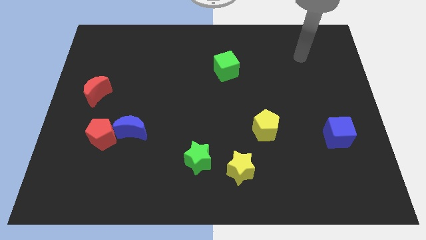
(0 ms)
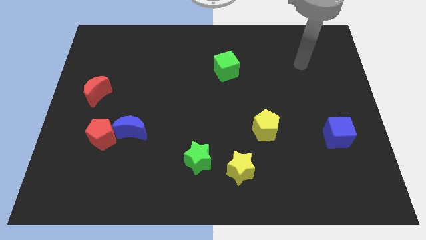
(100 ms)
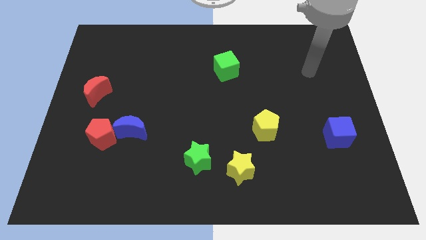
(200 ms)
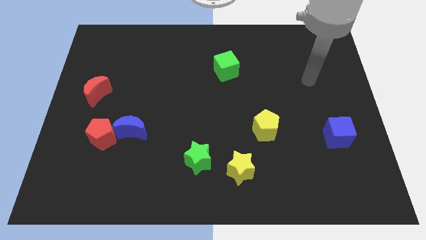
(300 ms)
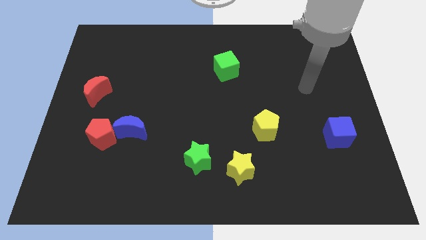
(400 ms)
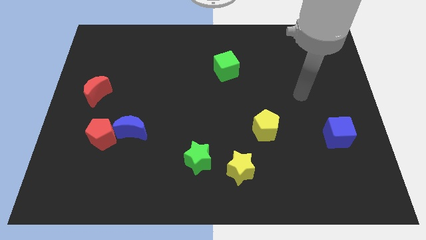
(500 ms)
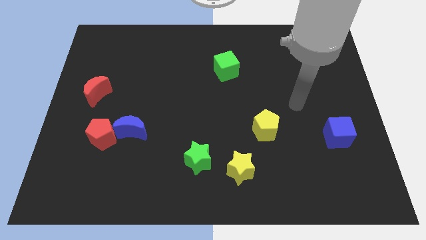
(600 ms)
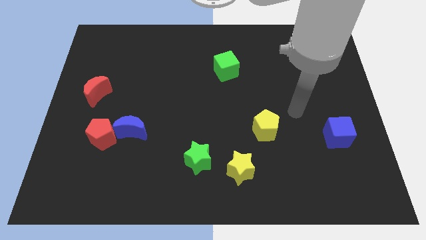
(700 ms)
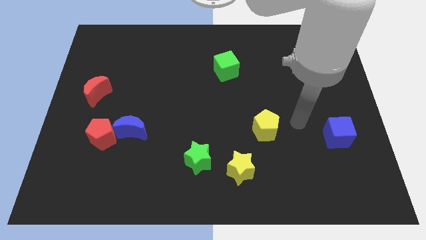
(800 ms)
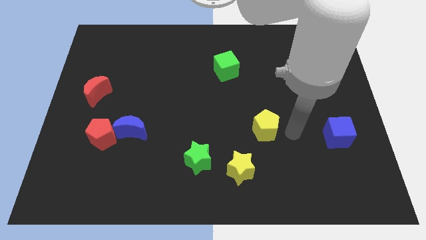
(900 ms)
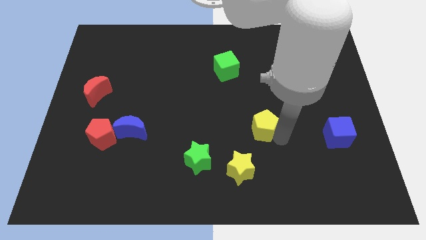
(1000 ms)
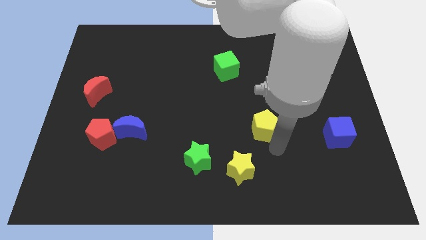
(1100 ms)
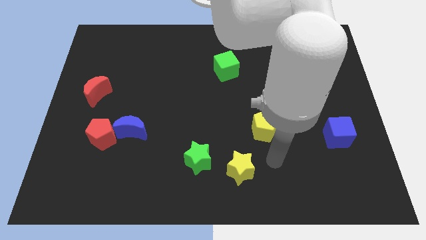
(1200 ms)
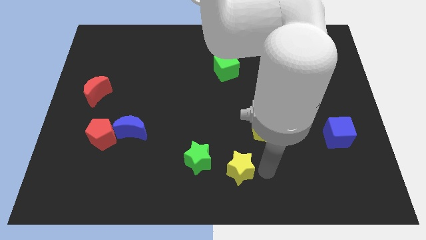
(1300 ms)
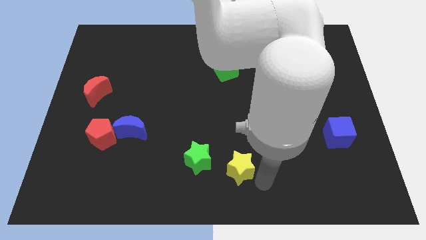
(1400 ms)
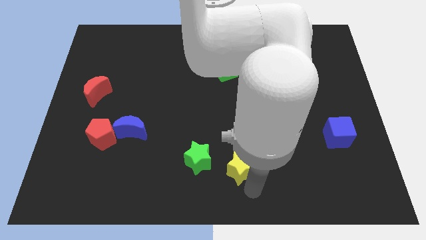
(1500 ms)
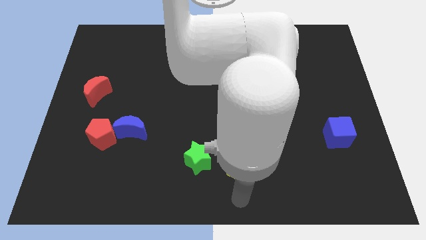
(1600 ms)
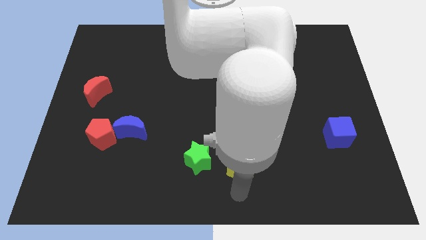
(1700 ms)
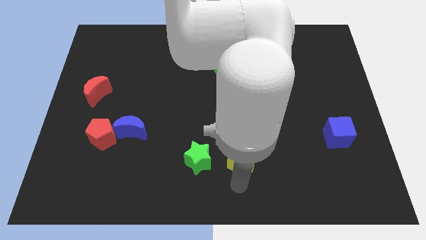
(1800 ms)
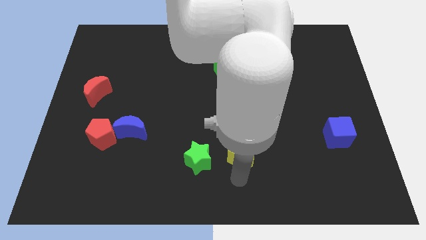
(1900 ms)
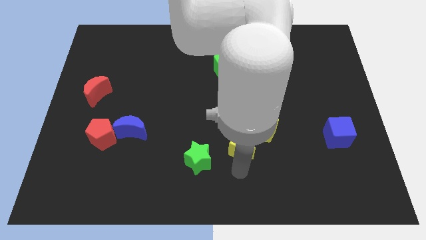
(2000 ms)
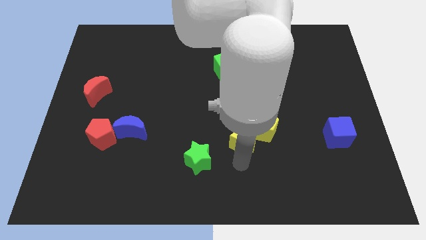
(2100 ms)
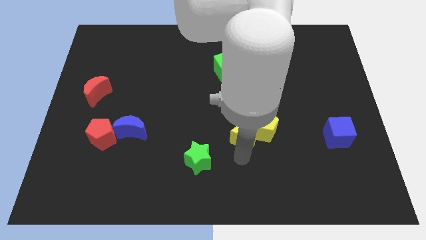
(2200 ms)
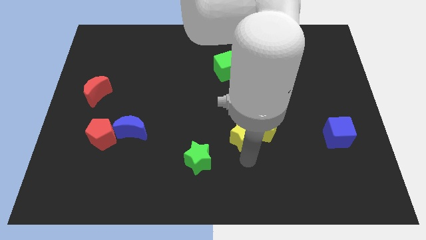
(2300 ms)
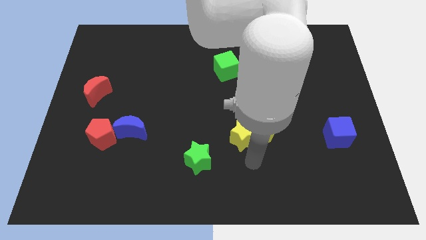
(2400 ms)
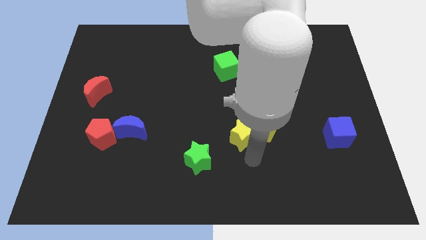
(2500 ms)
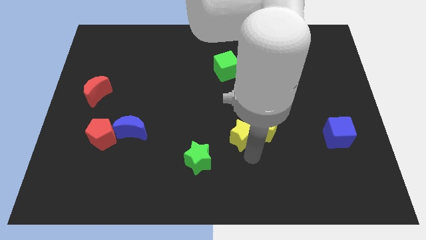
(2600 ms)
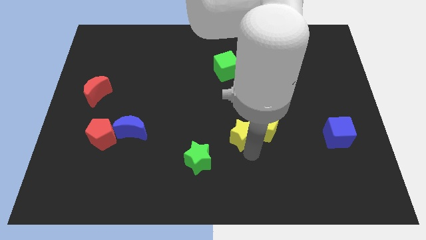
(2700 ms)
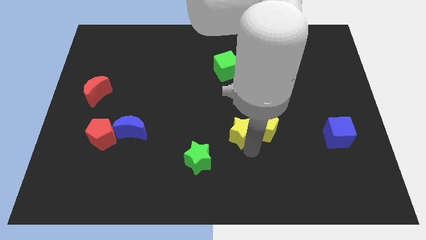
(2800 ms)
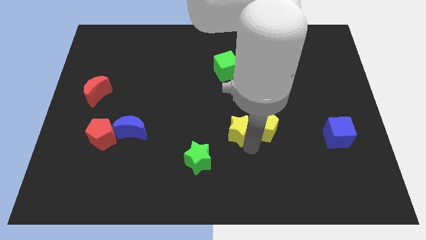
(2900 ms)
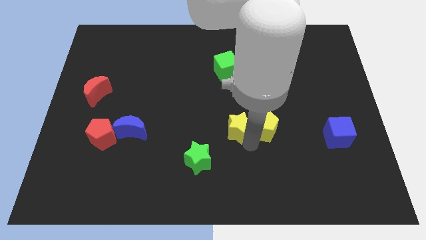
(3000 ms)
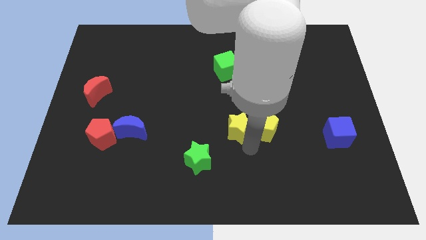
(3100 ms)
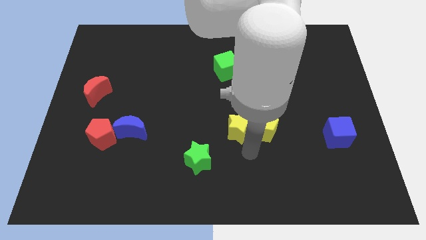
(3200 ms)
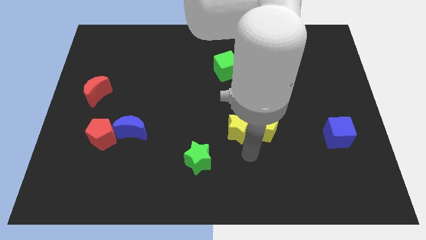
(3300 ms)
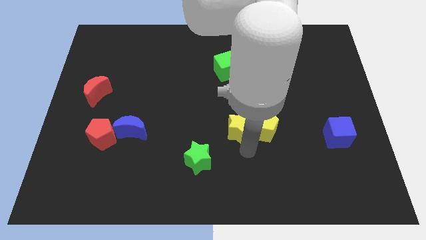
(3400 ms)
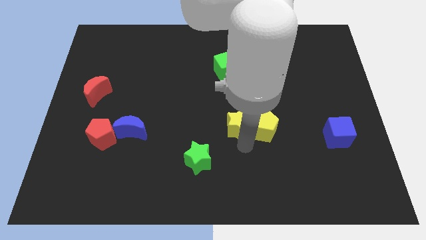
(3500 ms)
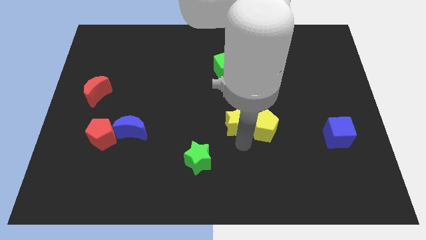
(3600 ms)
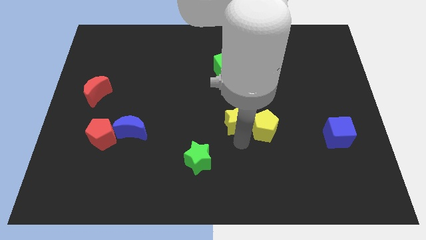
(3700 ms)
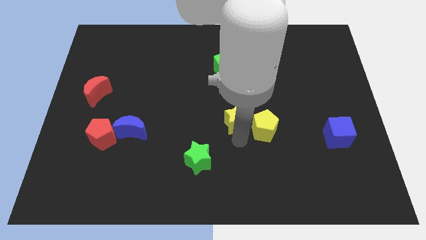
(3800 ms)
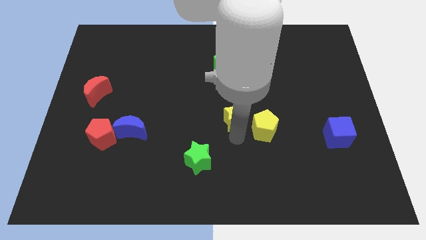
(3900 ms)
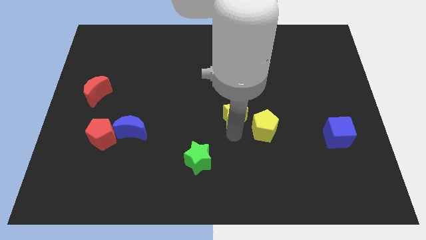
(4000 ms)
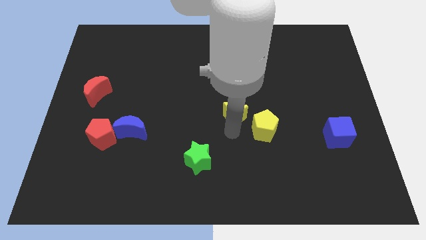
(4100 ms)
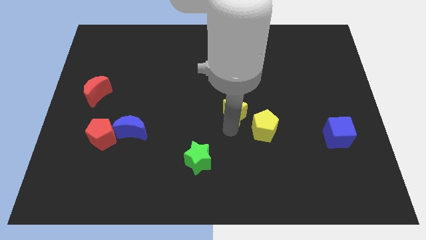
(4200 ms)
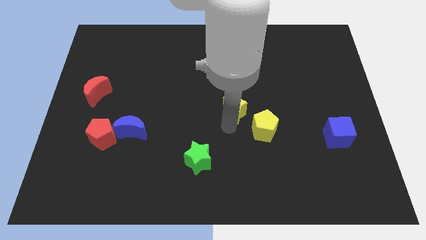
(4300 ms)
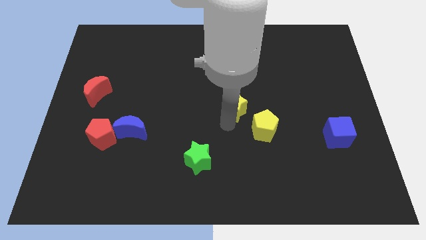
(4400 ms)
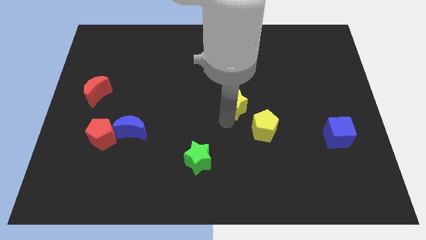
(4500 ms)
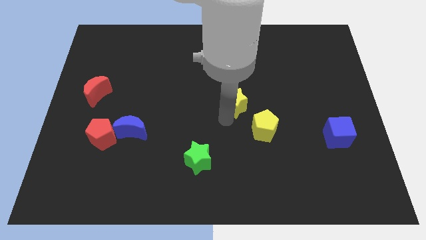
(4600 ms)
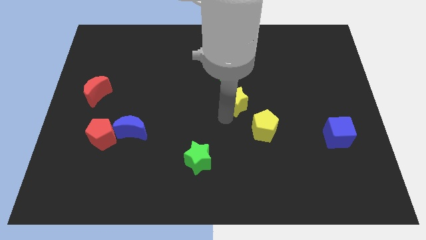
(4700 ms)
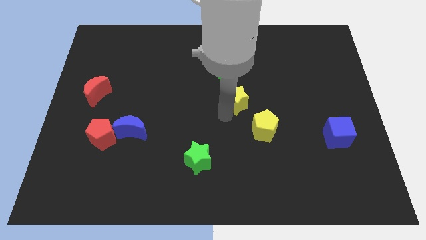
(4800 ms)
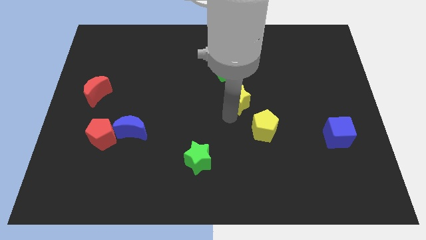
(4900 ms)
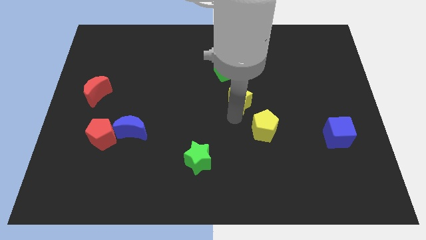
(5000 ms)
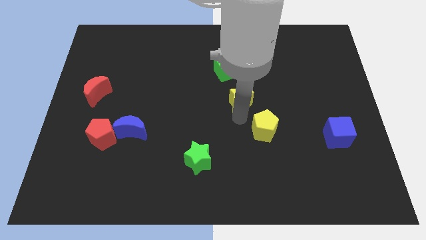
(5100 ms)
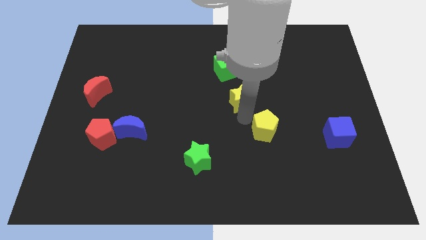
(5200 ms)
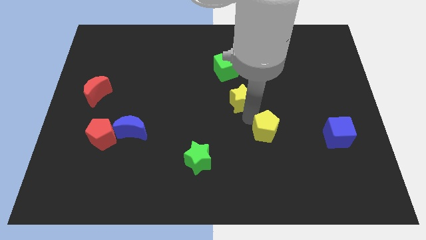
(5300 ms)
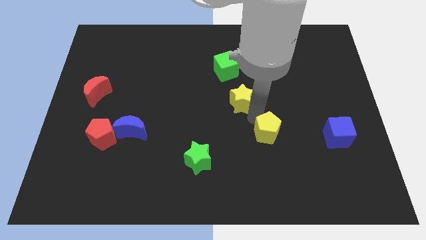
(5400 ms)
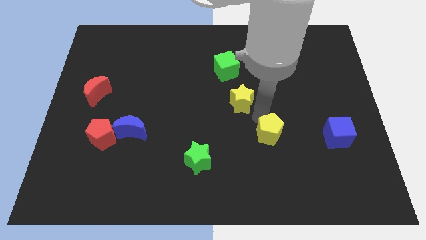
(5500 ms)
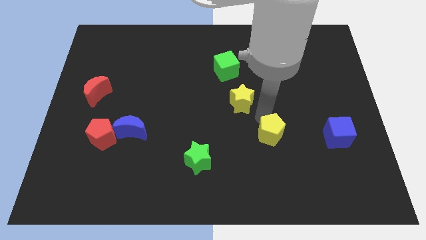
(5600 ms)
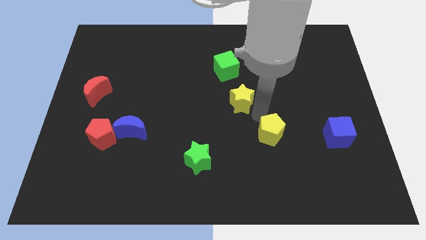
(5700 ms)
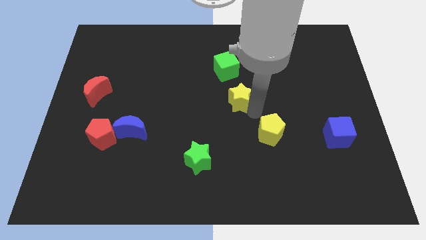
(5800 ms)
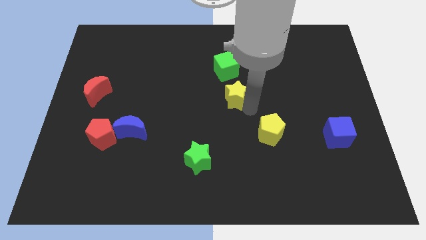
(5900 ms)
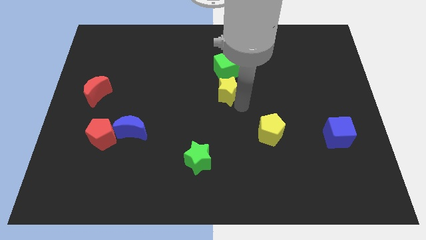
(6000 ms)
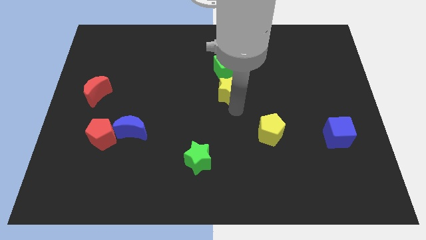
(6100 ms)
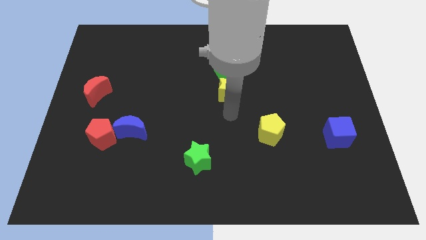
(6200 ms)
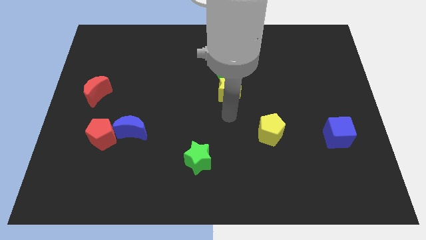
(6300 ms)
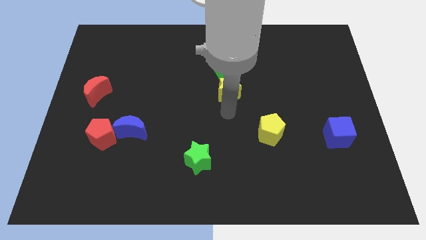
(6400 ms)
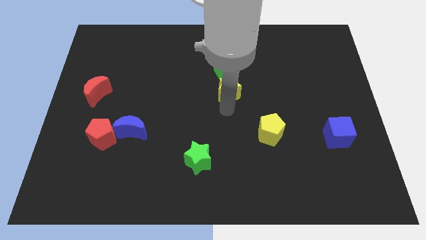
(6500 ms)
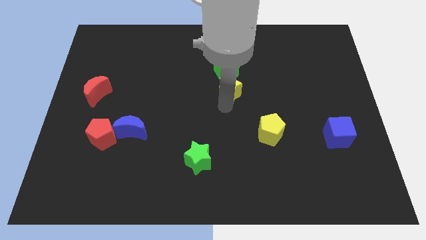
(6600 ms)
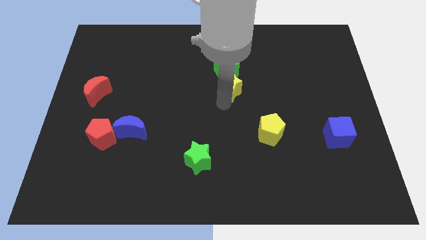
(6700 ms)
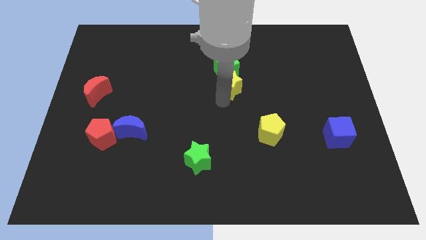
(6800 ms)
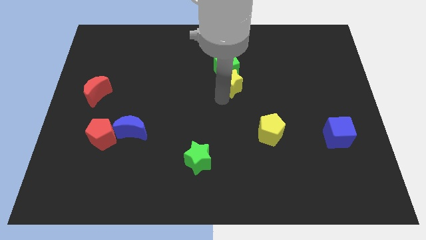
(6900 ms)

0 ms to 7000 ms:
put the yellow star to the green cube
